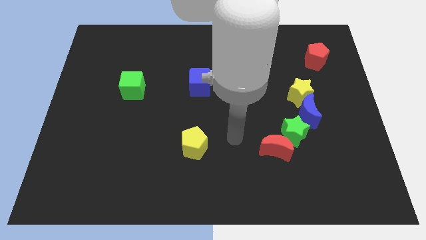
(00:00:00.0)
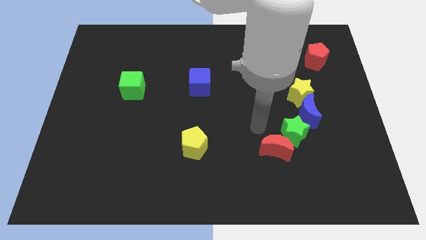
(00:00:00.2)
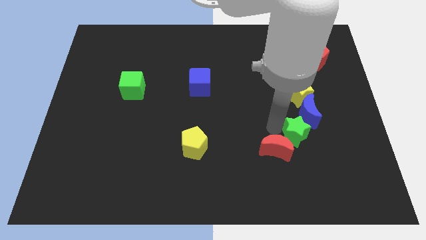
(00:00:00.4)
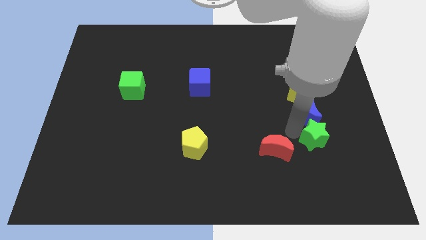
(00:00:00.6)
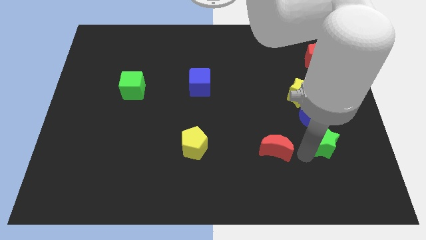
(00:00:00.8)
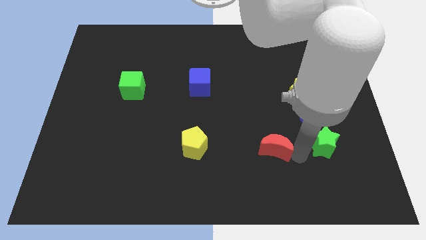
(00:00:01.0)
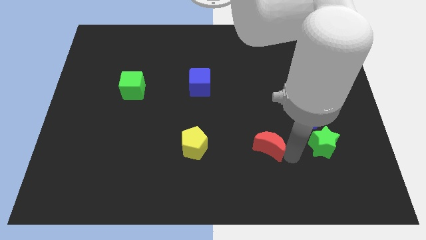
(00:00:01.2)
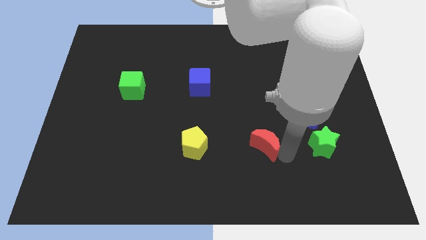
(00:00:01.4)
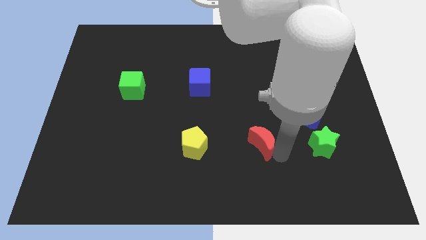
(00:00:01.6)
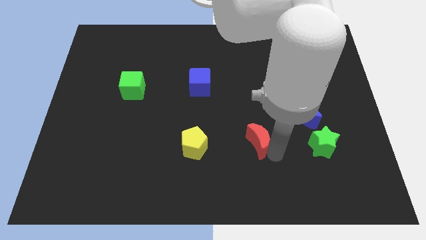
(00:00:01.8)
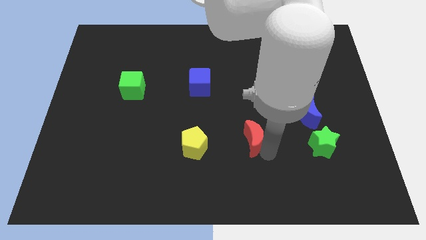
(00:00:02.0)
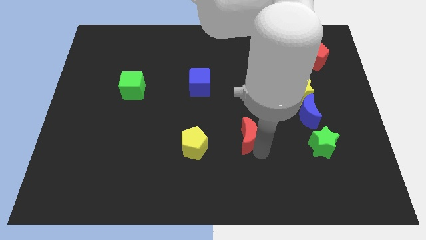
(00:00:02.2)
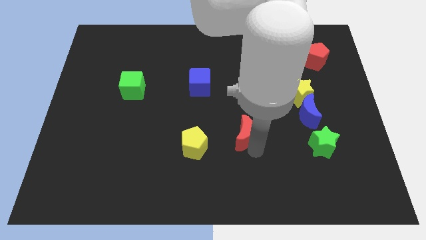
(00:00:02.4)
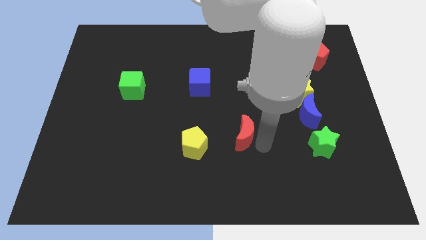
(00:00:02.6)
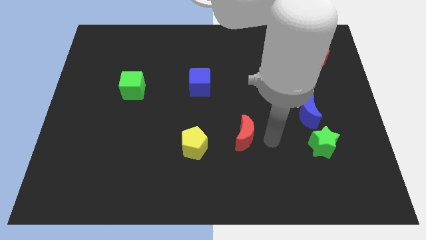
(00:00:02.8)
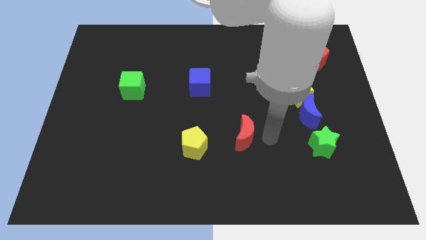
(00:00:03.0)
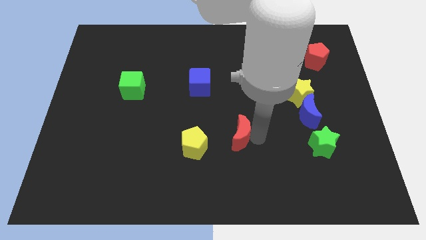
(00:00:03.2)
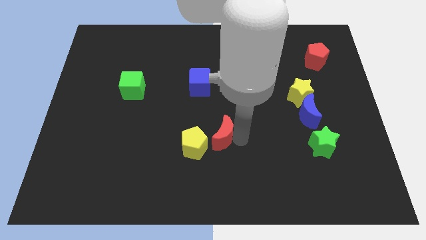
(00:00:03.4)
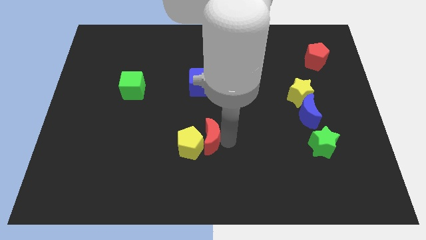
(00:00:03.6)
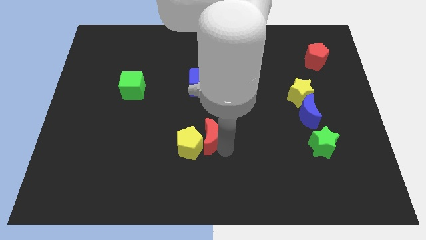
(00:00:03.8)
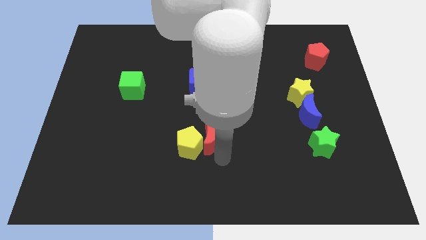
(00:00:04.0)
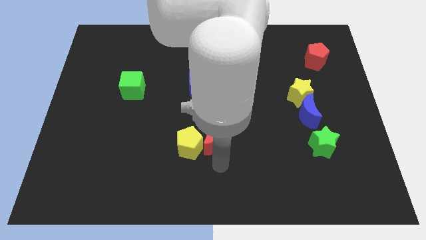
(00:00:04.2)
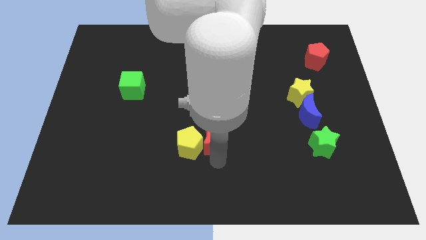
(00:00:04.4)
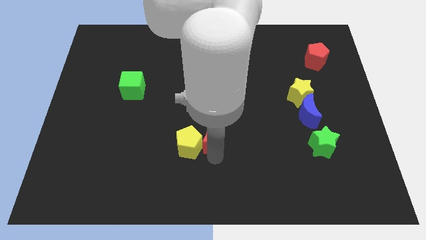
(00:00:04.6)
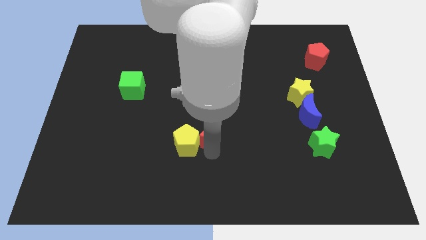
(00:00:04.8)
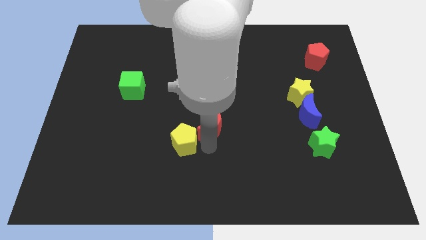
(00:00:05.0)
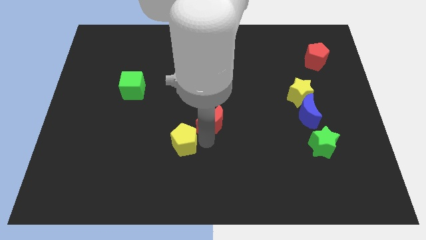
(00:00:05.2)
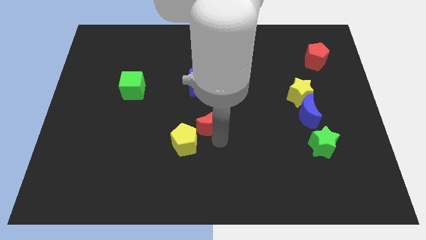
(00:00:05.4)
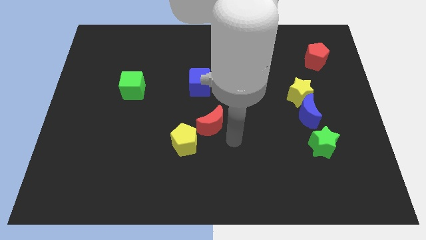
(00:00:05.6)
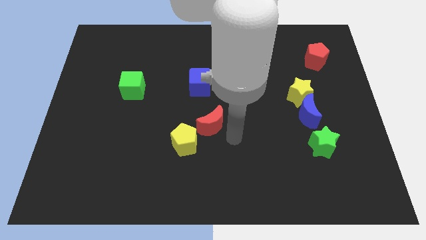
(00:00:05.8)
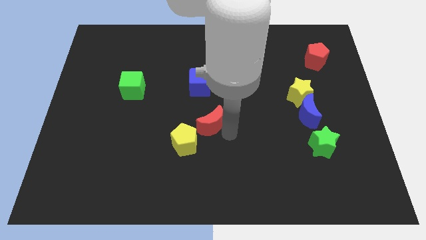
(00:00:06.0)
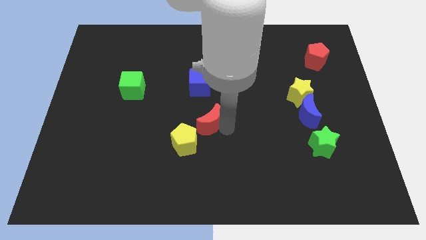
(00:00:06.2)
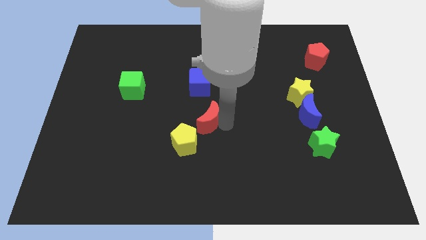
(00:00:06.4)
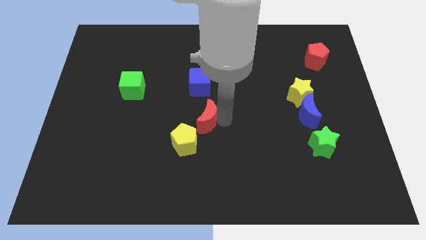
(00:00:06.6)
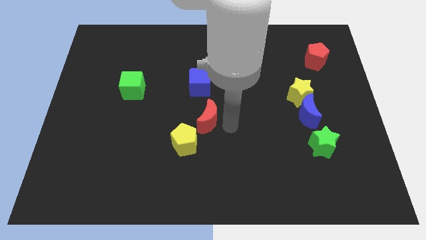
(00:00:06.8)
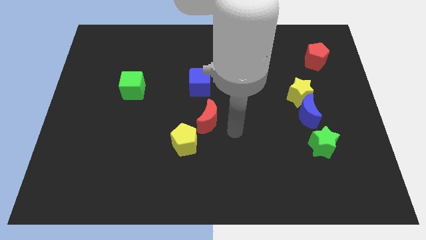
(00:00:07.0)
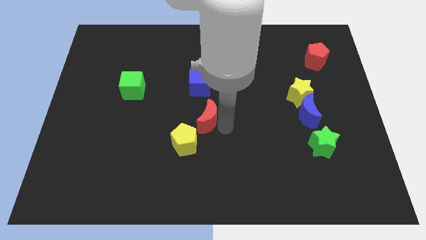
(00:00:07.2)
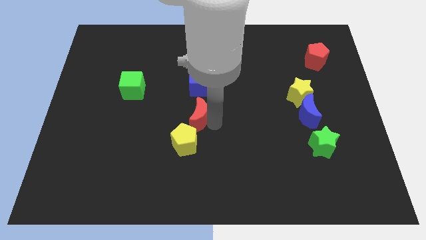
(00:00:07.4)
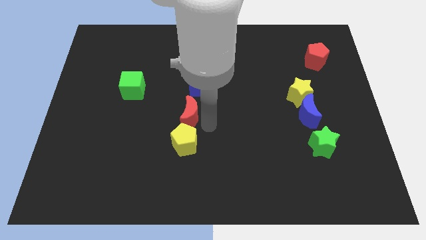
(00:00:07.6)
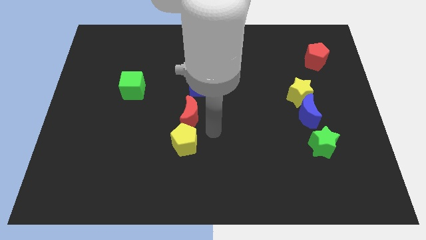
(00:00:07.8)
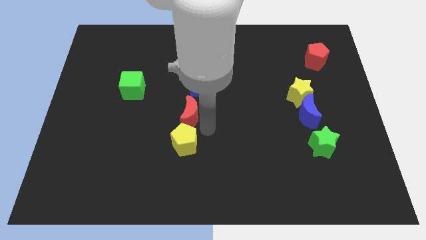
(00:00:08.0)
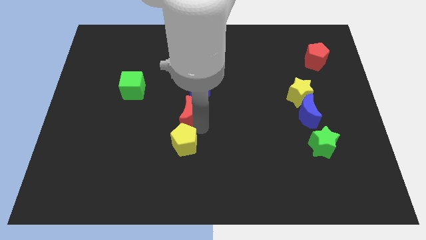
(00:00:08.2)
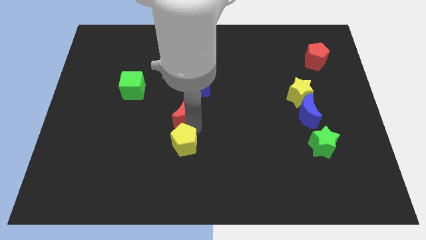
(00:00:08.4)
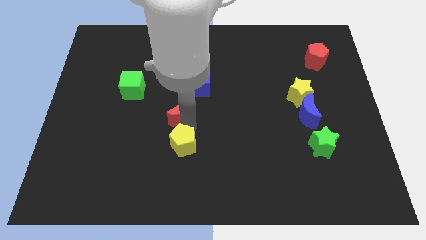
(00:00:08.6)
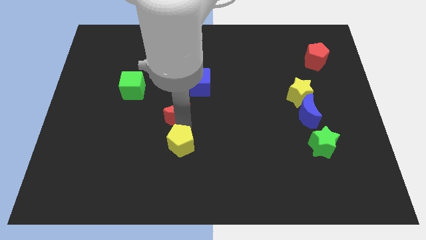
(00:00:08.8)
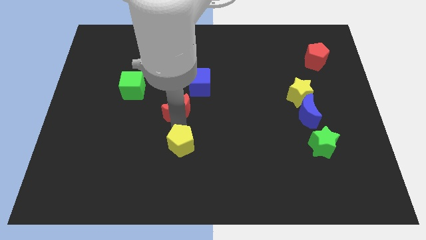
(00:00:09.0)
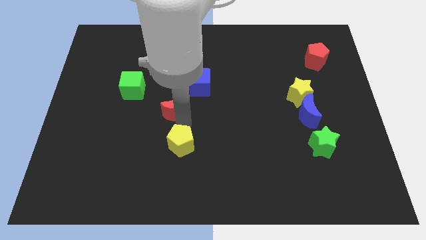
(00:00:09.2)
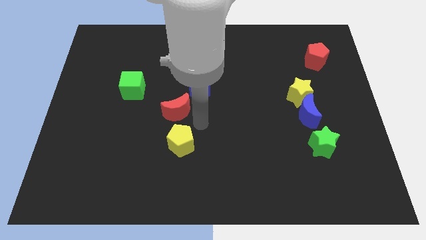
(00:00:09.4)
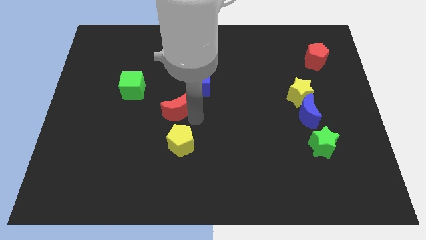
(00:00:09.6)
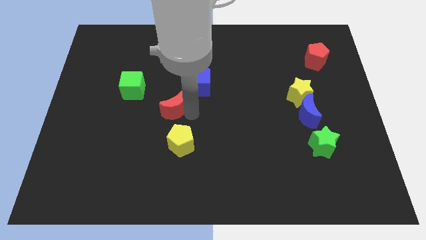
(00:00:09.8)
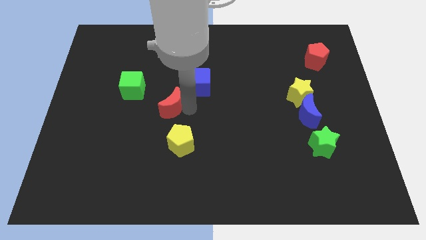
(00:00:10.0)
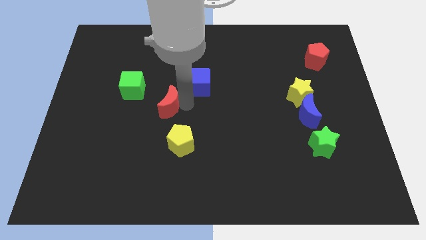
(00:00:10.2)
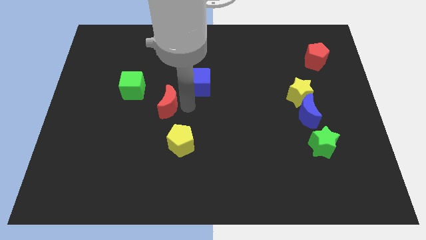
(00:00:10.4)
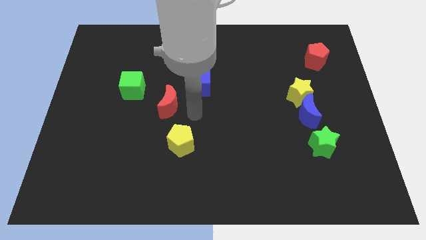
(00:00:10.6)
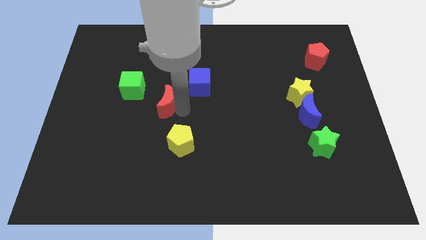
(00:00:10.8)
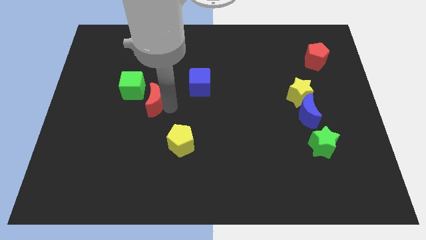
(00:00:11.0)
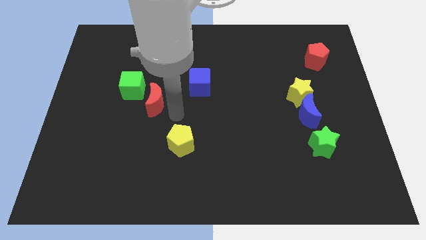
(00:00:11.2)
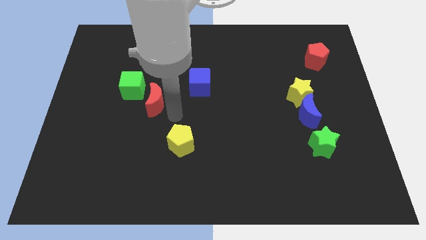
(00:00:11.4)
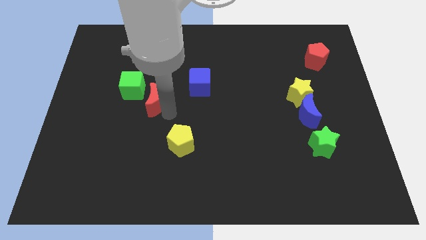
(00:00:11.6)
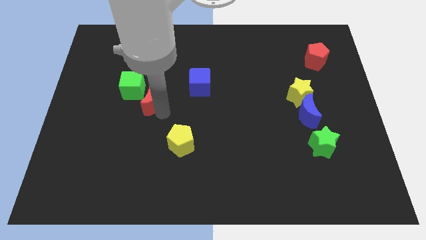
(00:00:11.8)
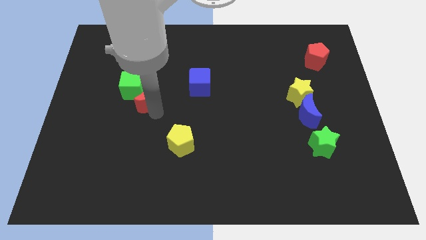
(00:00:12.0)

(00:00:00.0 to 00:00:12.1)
put the red moon close to the green cube
